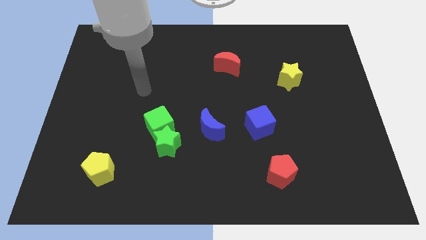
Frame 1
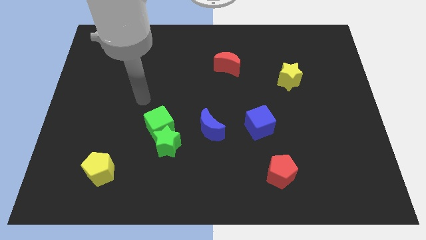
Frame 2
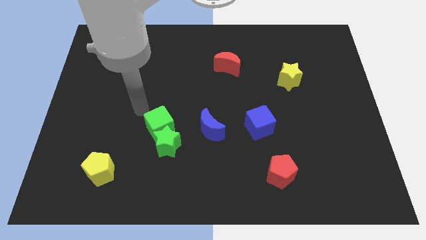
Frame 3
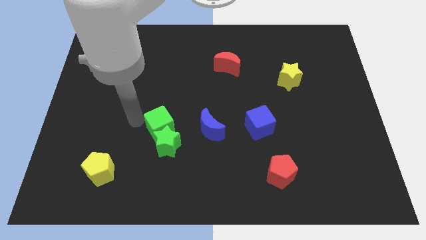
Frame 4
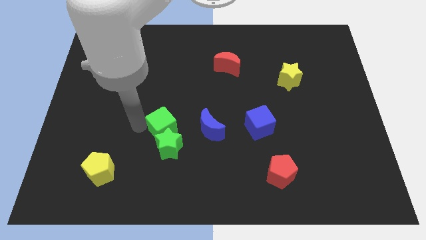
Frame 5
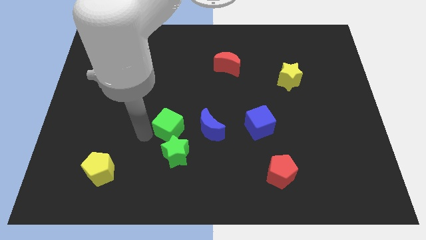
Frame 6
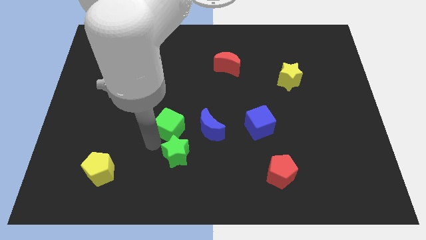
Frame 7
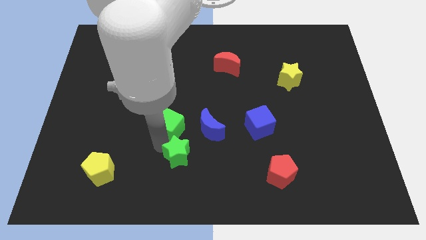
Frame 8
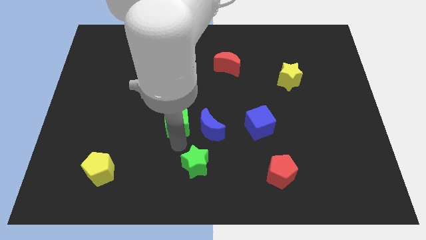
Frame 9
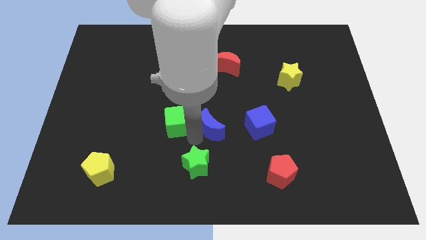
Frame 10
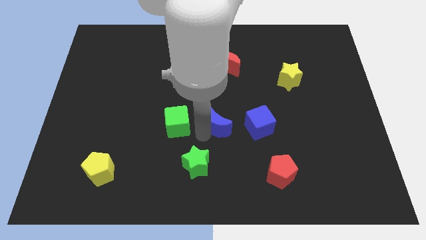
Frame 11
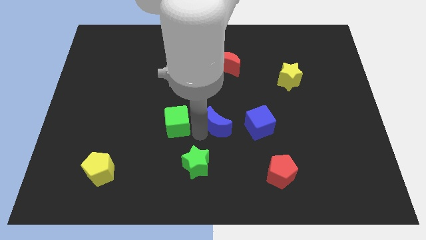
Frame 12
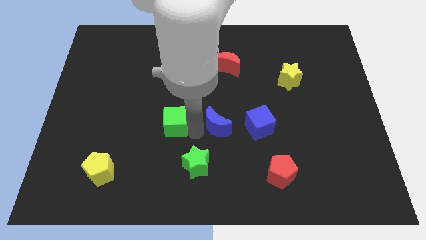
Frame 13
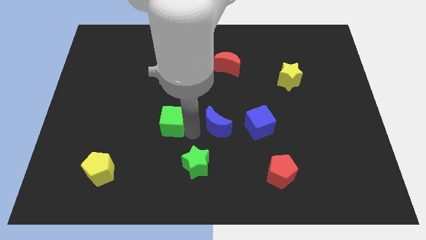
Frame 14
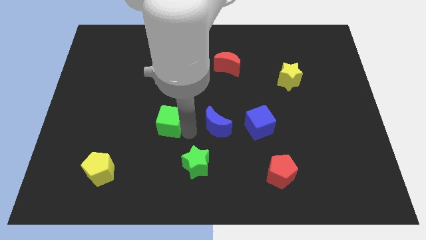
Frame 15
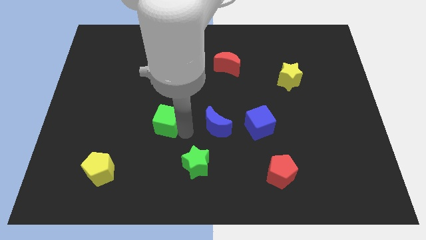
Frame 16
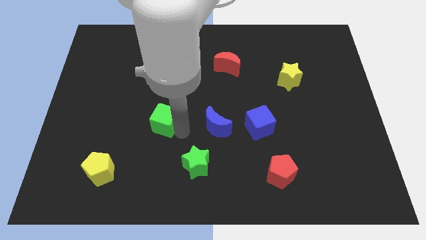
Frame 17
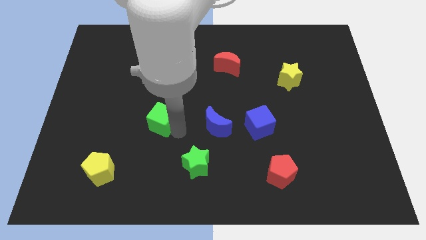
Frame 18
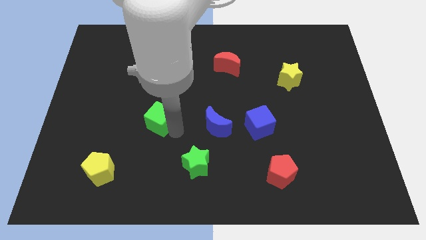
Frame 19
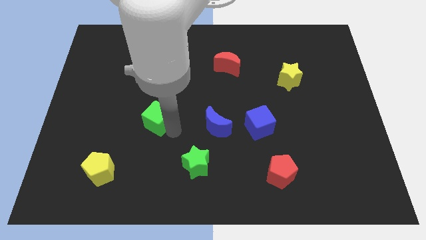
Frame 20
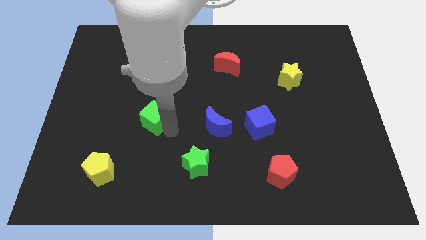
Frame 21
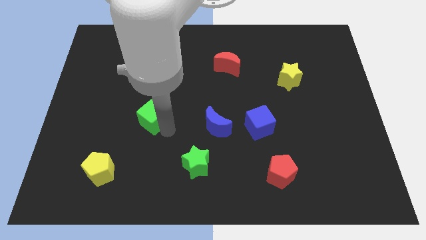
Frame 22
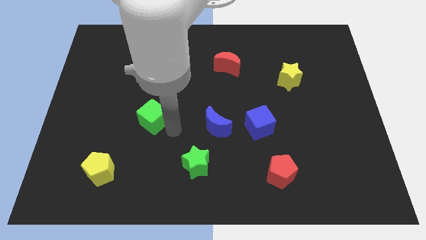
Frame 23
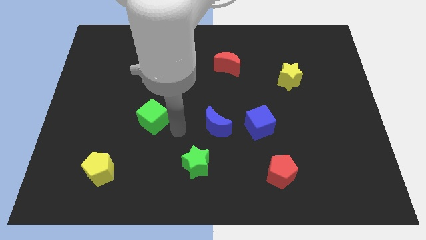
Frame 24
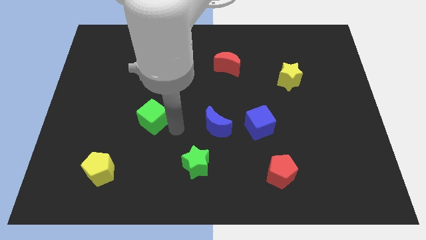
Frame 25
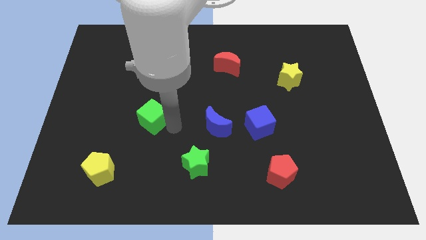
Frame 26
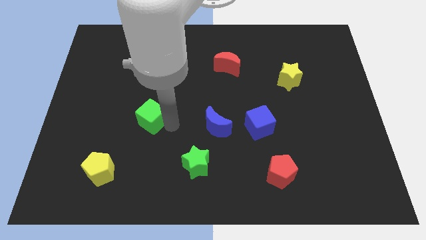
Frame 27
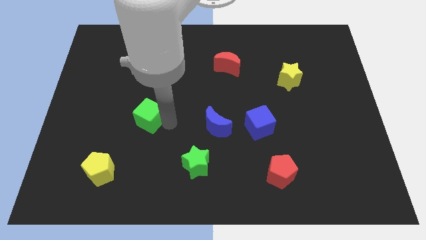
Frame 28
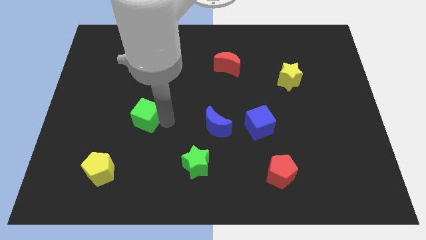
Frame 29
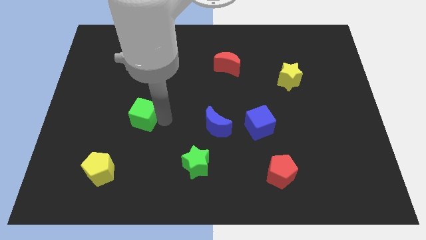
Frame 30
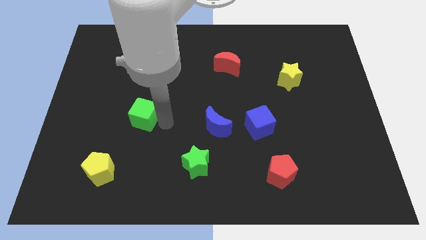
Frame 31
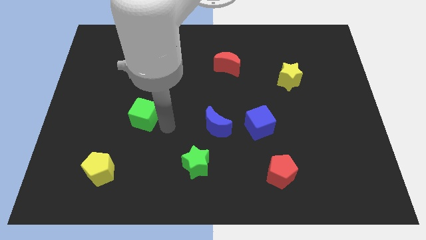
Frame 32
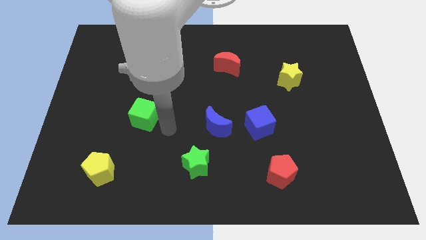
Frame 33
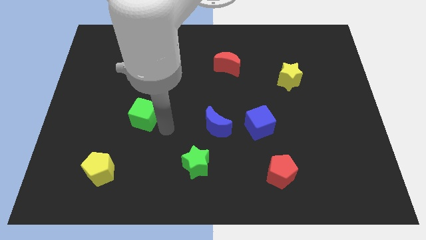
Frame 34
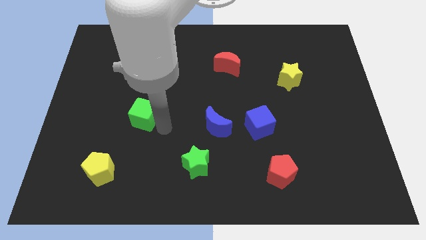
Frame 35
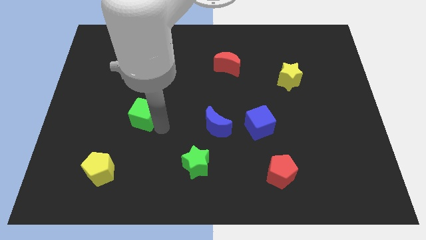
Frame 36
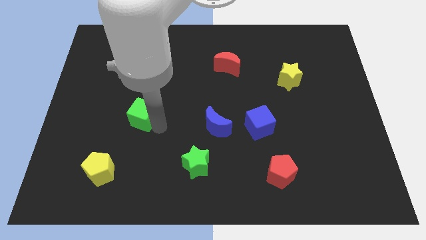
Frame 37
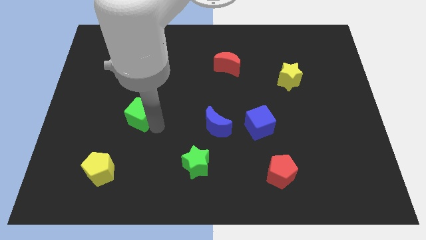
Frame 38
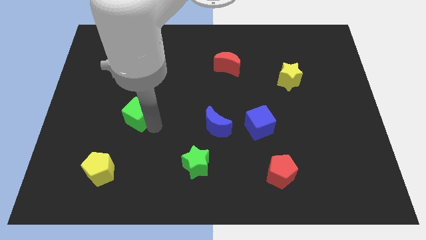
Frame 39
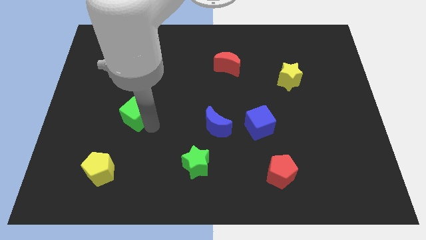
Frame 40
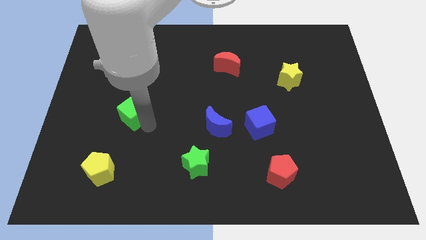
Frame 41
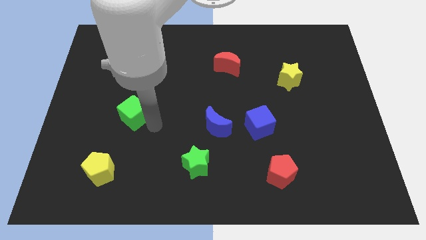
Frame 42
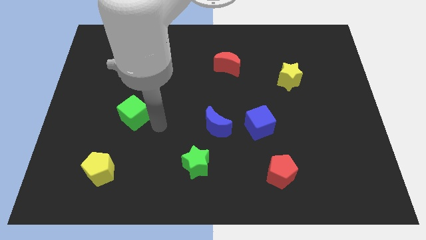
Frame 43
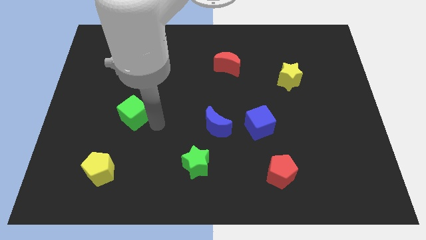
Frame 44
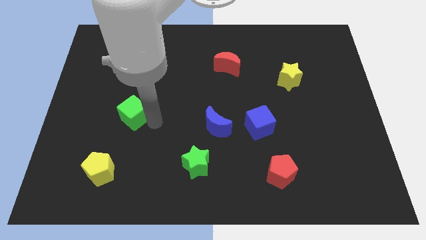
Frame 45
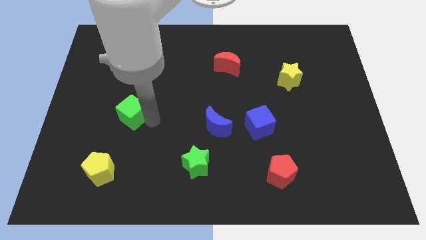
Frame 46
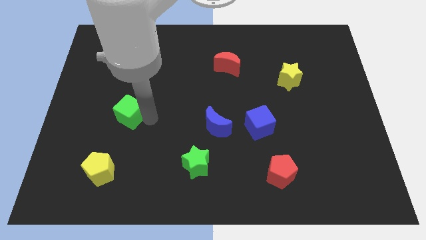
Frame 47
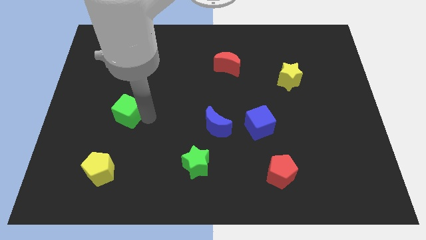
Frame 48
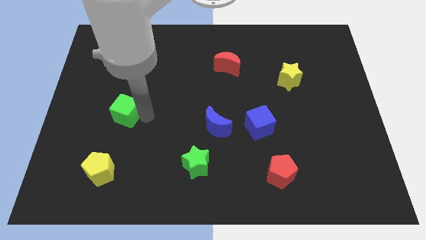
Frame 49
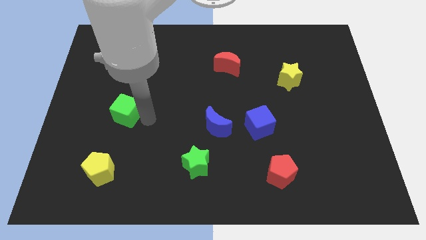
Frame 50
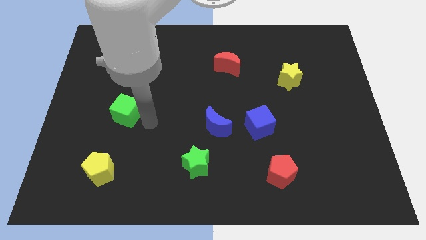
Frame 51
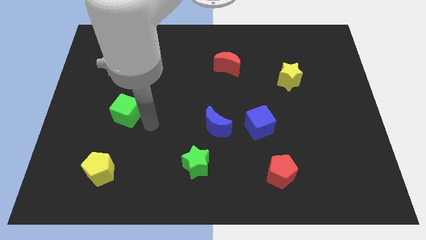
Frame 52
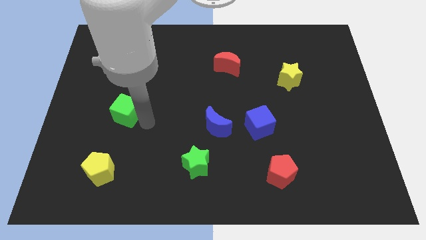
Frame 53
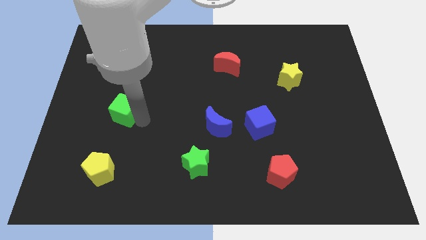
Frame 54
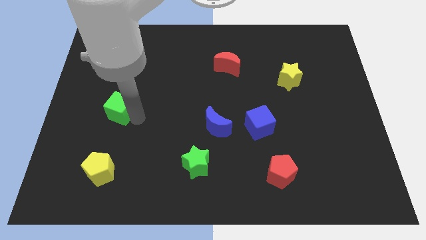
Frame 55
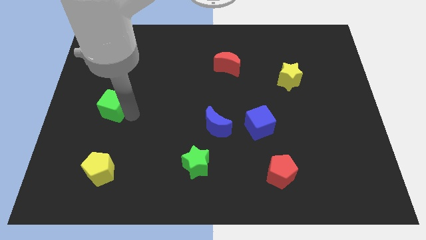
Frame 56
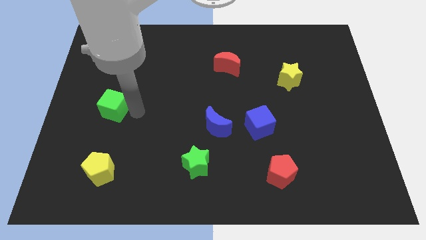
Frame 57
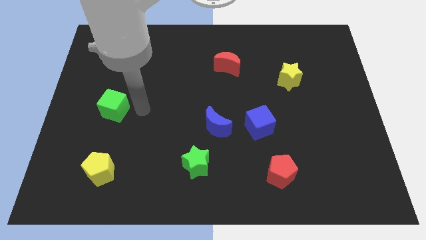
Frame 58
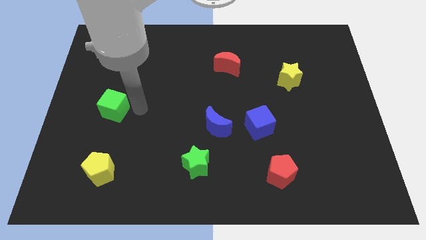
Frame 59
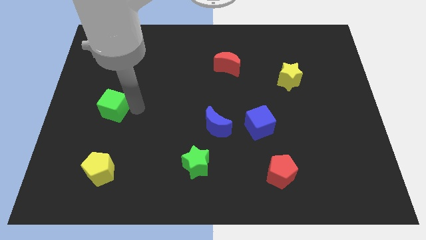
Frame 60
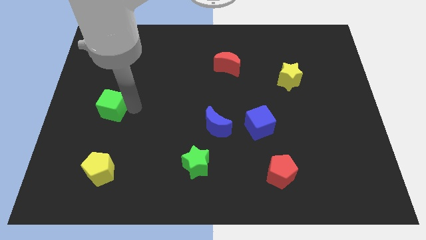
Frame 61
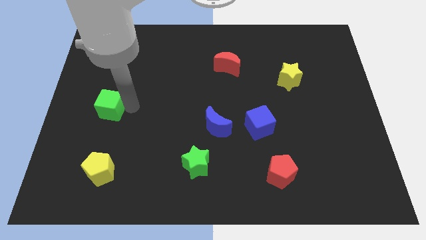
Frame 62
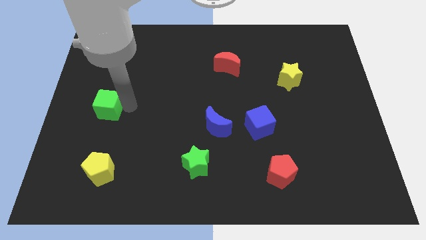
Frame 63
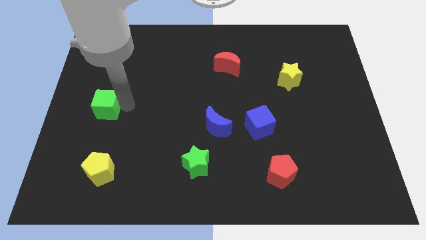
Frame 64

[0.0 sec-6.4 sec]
slide the green cube to the left side of the board
